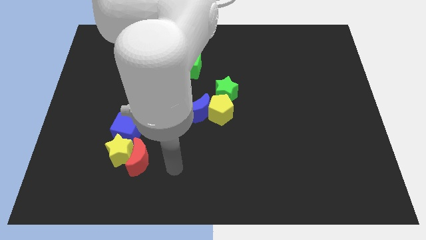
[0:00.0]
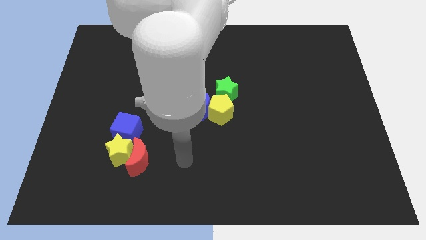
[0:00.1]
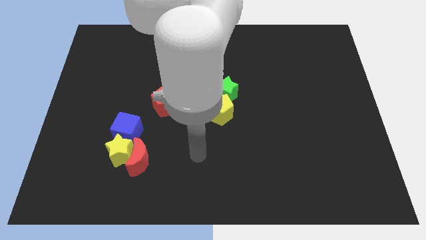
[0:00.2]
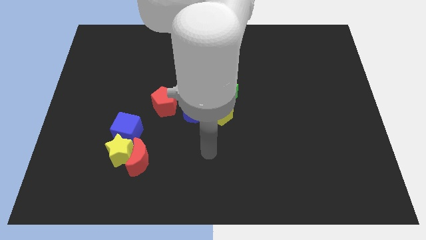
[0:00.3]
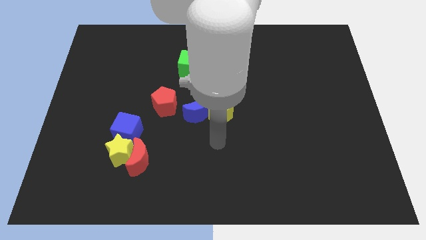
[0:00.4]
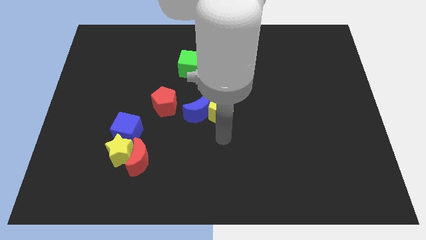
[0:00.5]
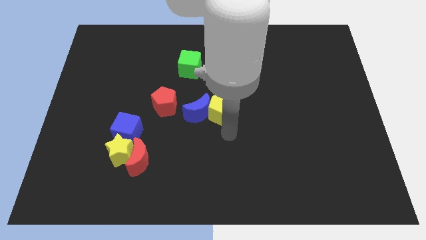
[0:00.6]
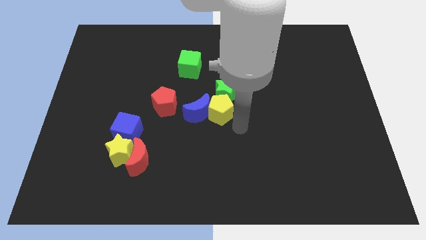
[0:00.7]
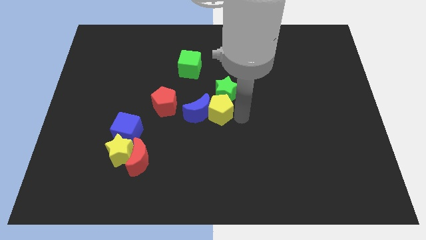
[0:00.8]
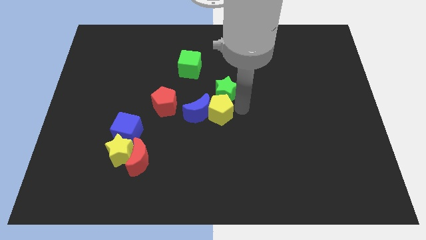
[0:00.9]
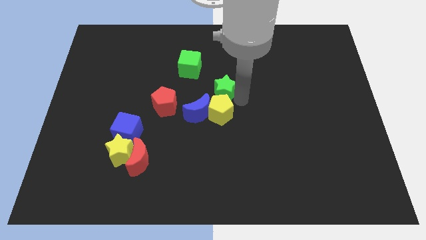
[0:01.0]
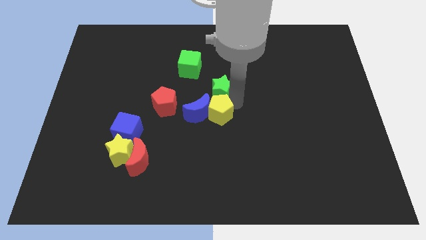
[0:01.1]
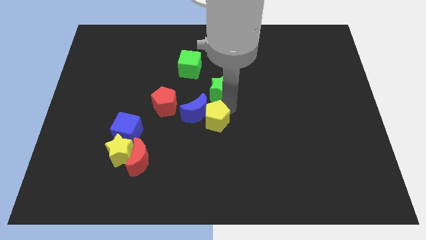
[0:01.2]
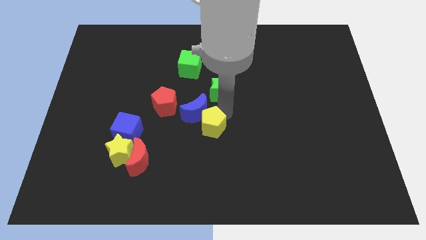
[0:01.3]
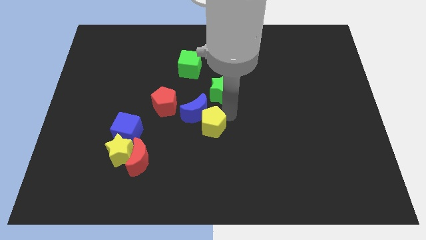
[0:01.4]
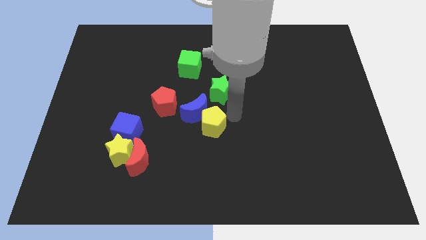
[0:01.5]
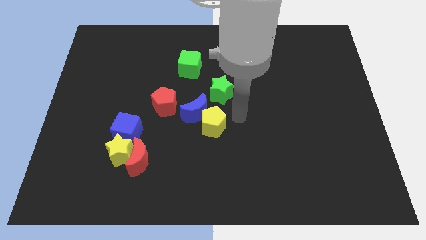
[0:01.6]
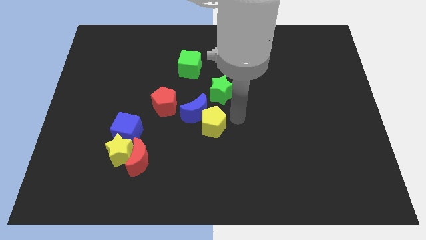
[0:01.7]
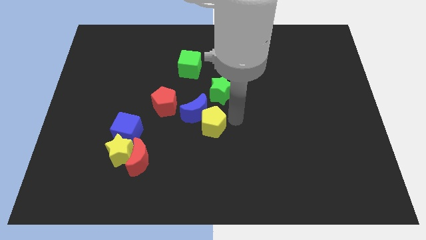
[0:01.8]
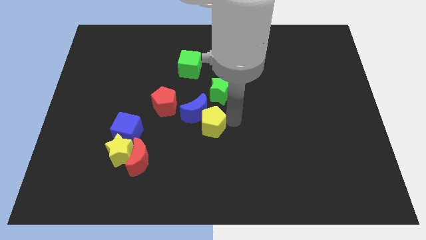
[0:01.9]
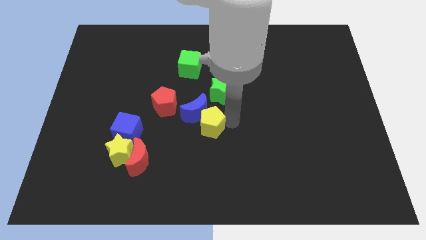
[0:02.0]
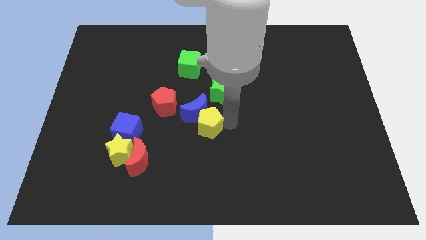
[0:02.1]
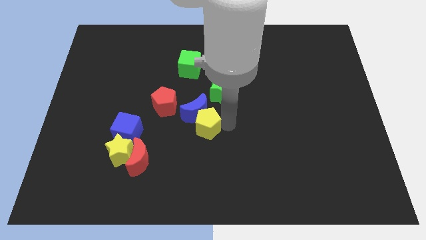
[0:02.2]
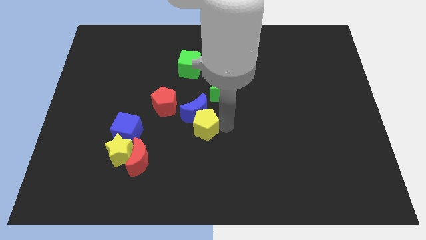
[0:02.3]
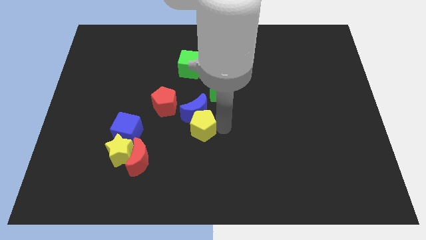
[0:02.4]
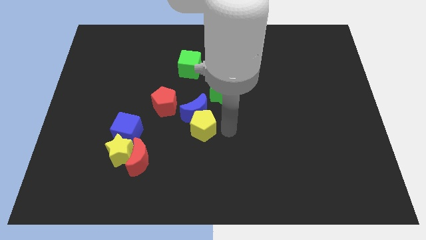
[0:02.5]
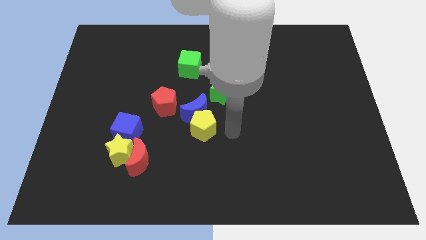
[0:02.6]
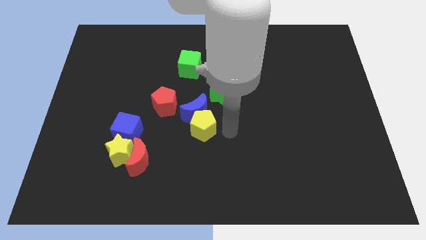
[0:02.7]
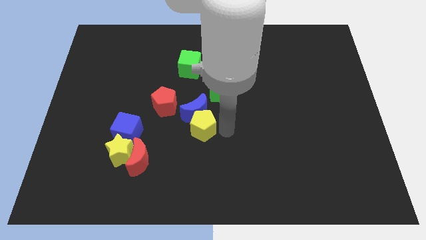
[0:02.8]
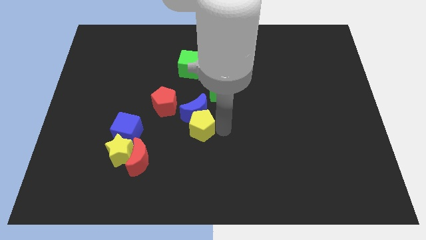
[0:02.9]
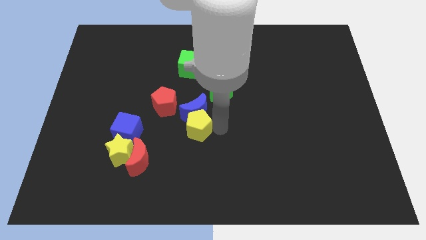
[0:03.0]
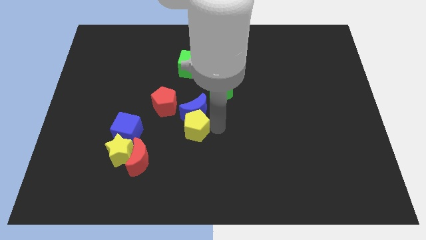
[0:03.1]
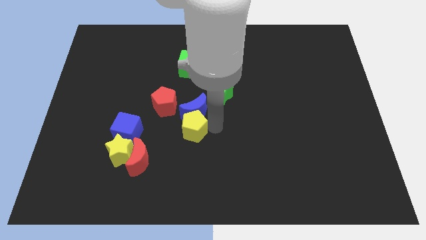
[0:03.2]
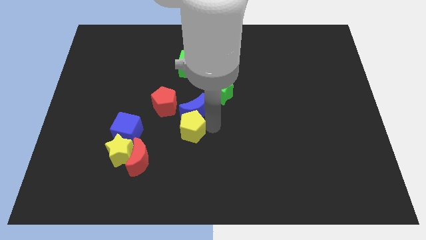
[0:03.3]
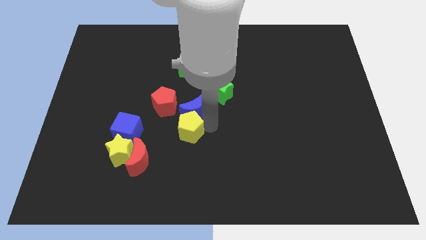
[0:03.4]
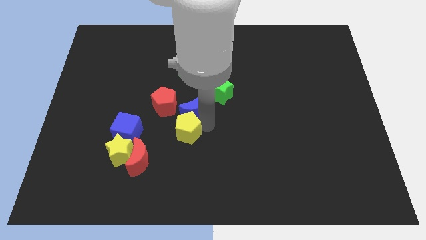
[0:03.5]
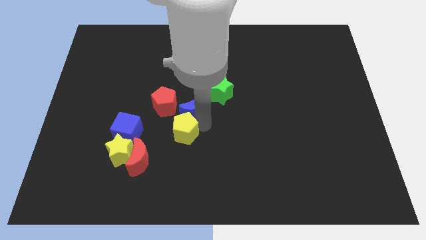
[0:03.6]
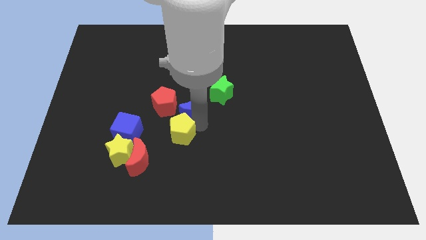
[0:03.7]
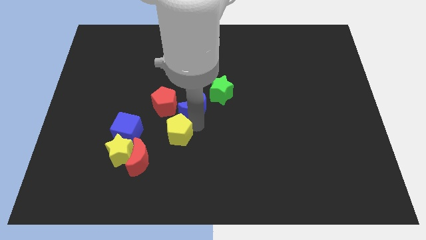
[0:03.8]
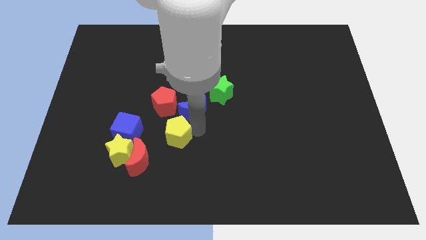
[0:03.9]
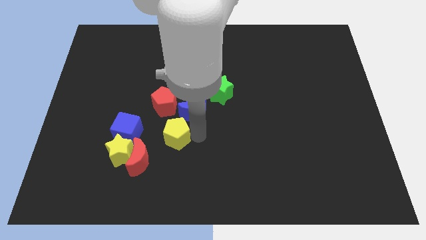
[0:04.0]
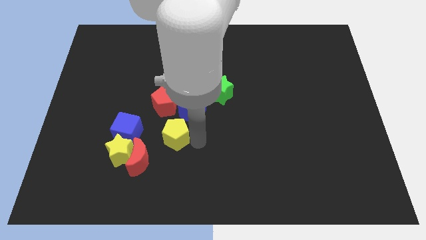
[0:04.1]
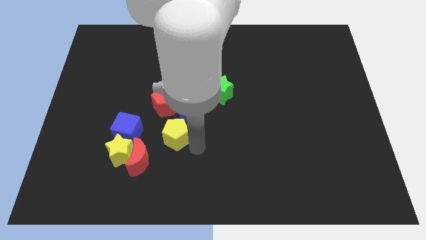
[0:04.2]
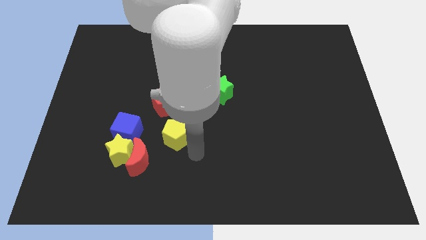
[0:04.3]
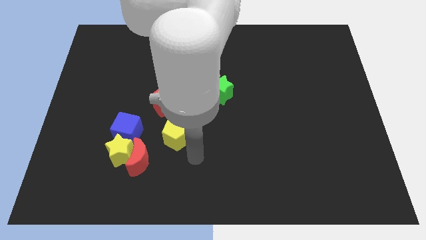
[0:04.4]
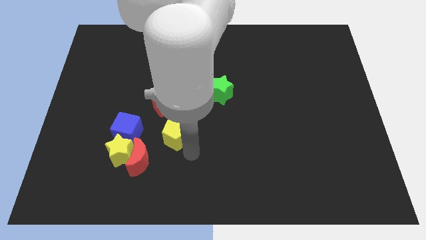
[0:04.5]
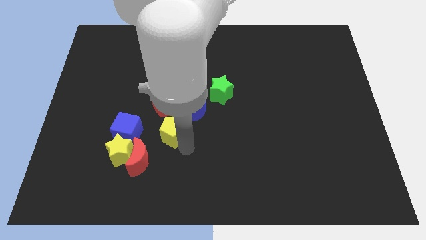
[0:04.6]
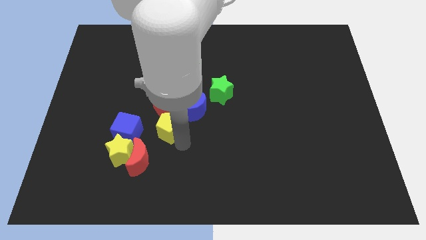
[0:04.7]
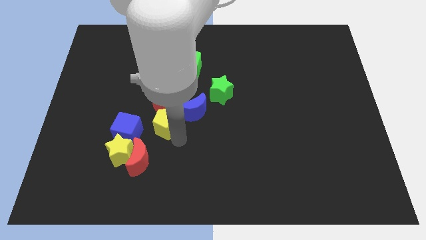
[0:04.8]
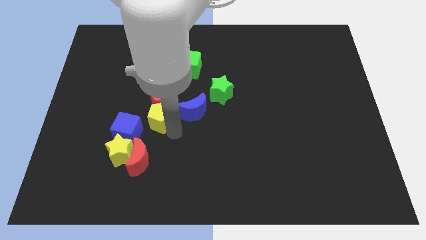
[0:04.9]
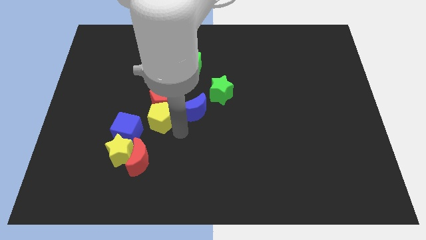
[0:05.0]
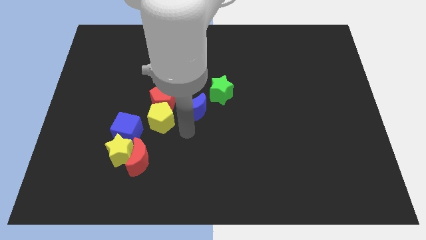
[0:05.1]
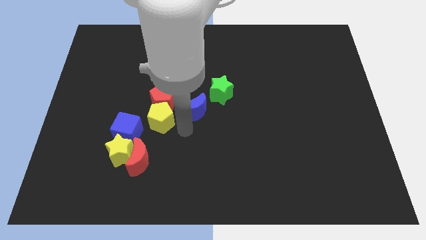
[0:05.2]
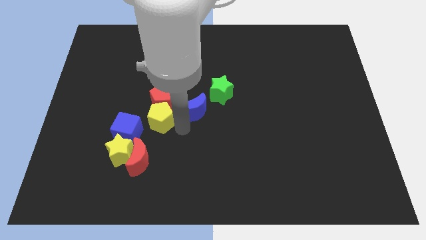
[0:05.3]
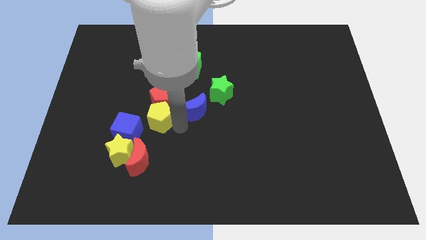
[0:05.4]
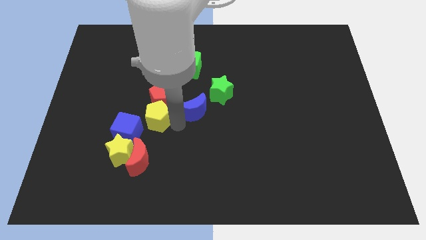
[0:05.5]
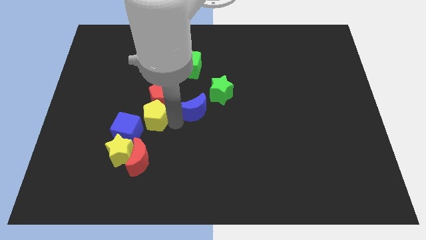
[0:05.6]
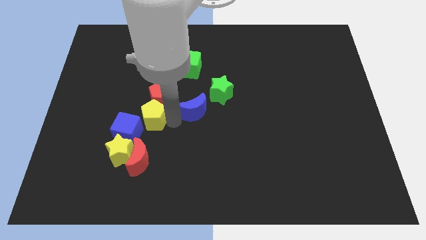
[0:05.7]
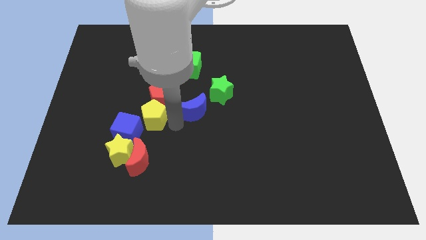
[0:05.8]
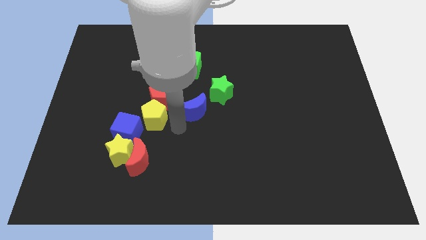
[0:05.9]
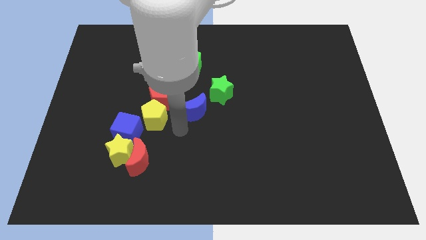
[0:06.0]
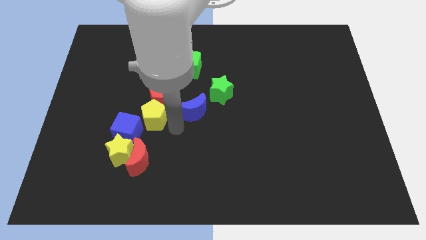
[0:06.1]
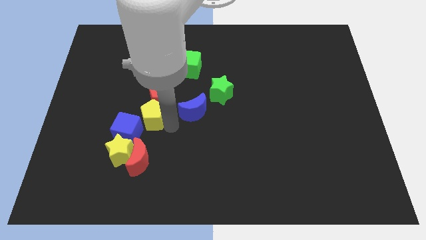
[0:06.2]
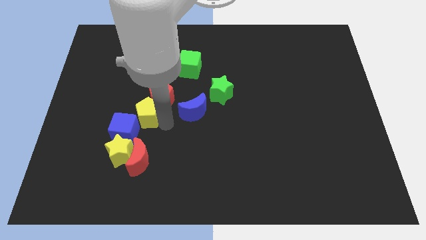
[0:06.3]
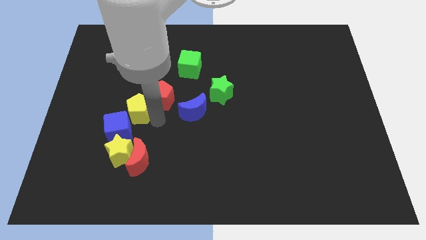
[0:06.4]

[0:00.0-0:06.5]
put the yellow pentagon just left of the red pentagon
